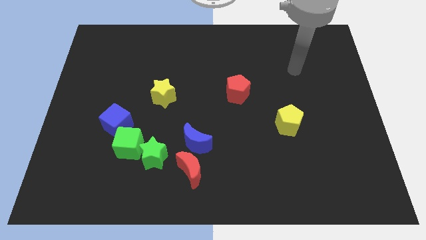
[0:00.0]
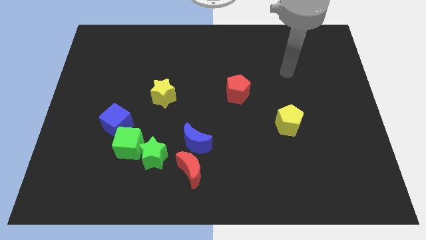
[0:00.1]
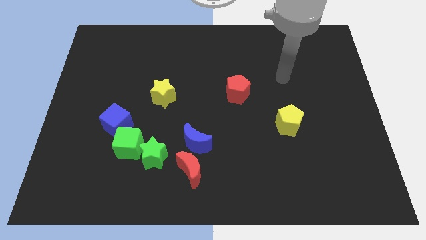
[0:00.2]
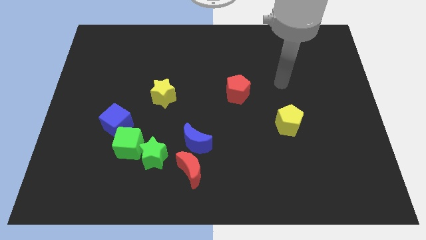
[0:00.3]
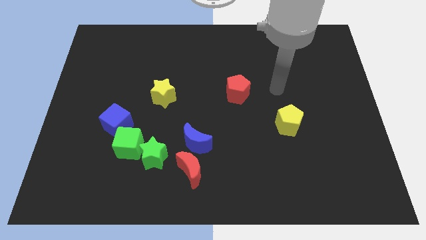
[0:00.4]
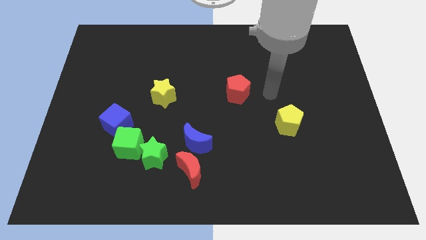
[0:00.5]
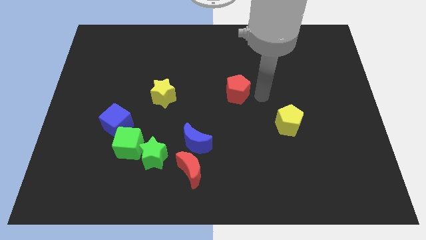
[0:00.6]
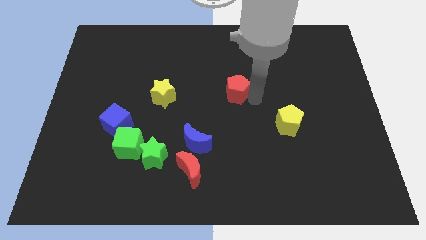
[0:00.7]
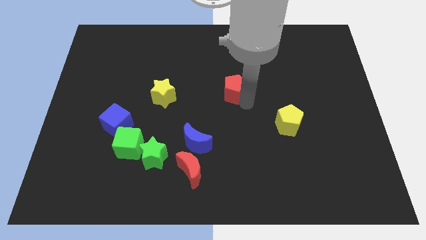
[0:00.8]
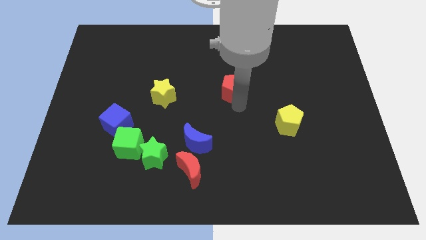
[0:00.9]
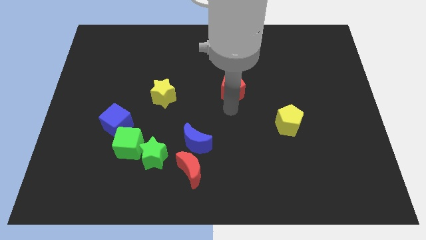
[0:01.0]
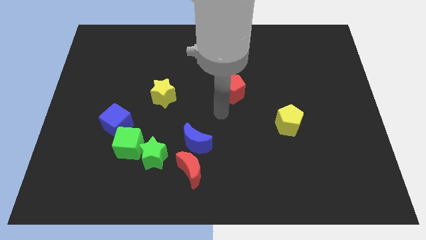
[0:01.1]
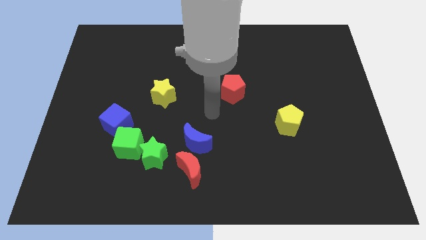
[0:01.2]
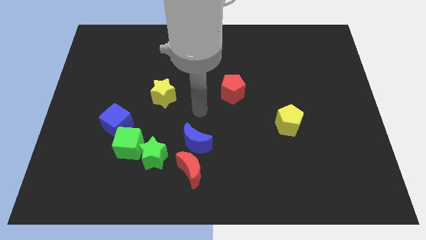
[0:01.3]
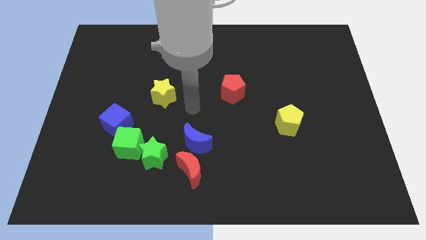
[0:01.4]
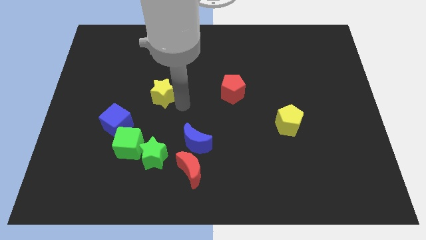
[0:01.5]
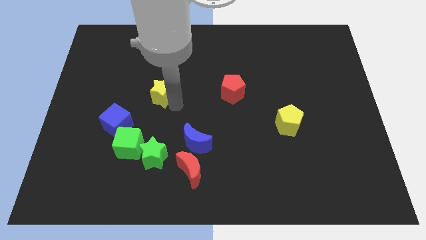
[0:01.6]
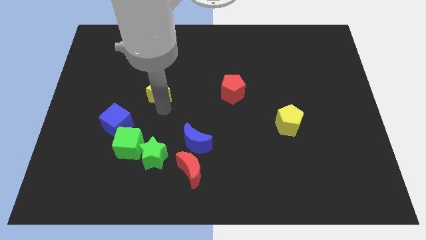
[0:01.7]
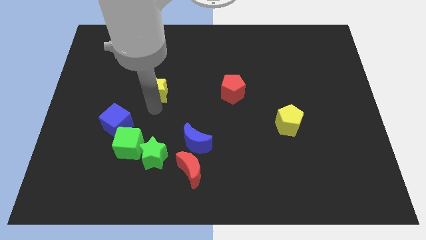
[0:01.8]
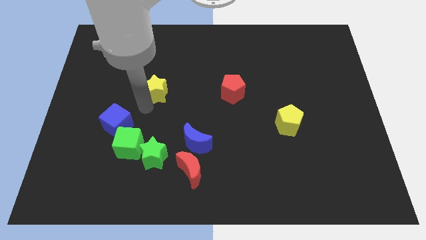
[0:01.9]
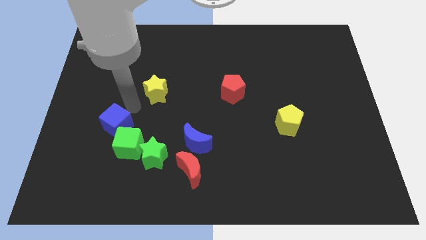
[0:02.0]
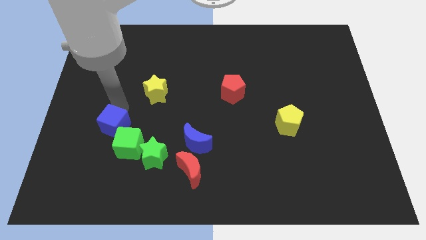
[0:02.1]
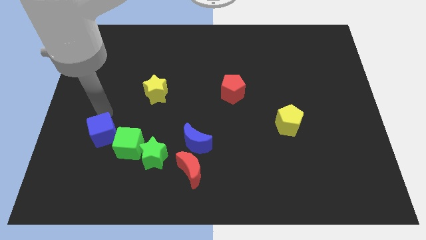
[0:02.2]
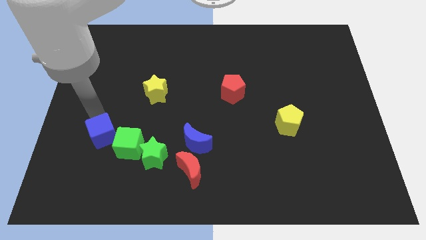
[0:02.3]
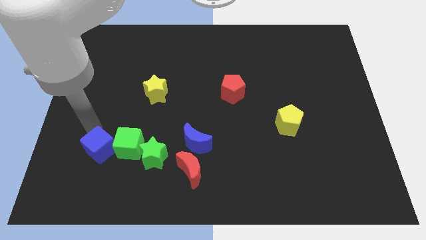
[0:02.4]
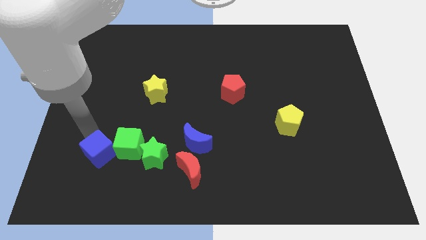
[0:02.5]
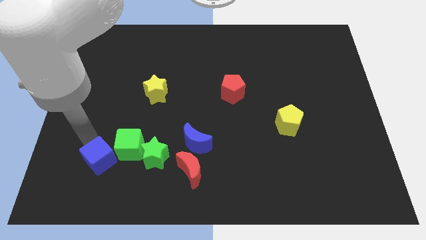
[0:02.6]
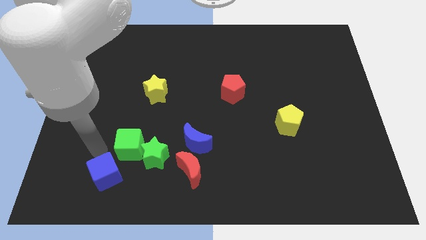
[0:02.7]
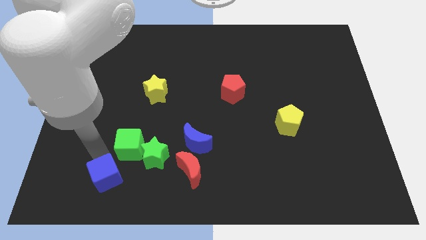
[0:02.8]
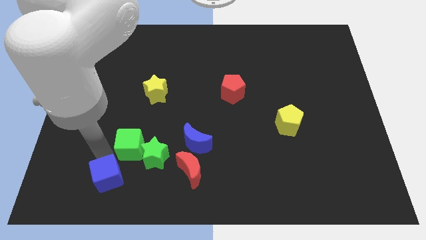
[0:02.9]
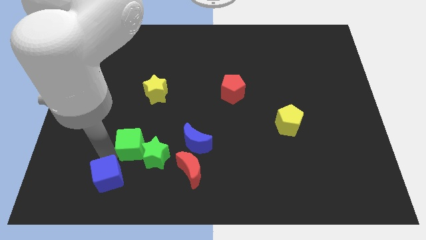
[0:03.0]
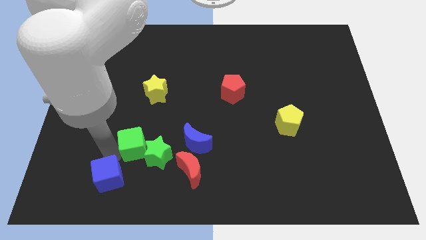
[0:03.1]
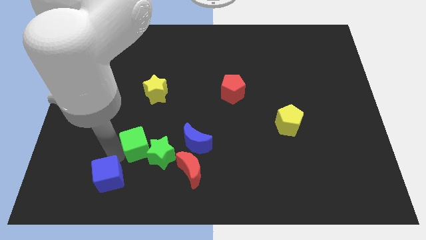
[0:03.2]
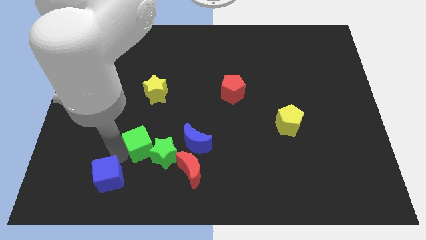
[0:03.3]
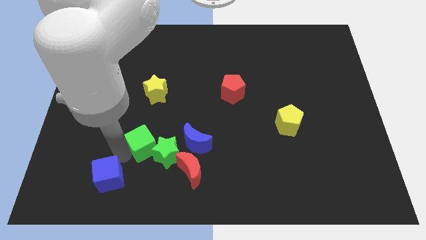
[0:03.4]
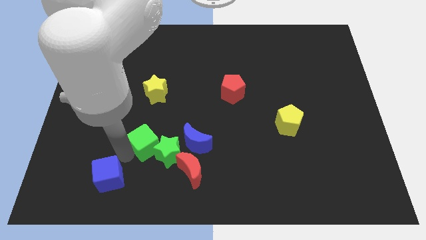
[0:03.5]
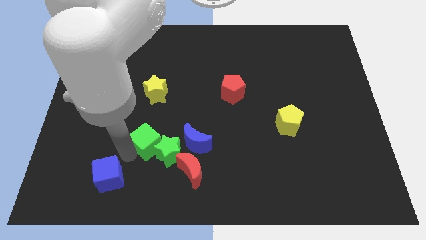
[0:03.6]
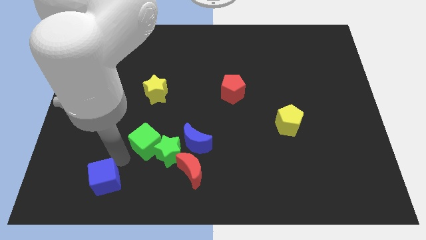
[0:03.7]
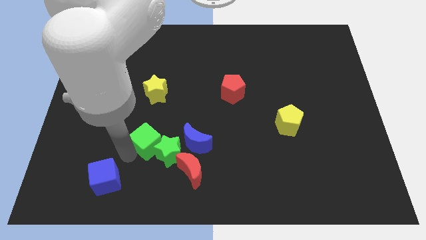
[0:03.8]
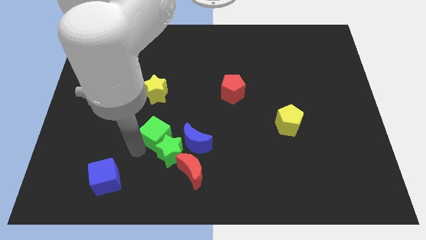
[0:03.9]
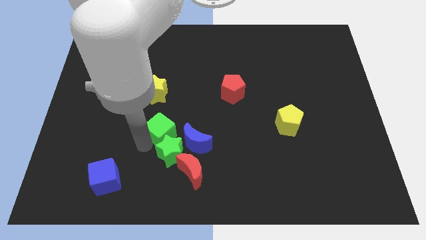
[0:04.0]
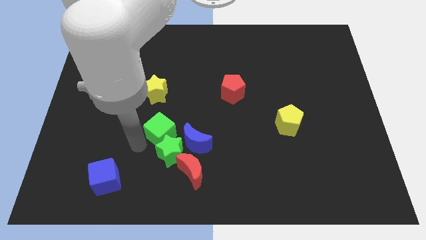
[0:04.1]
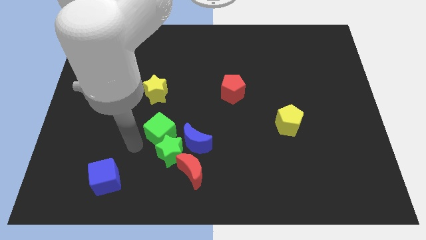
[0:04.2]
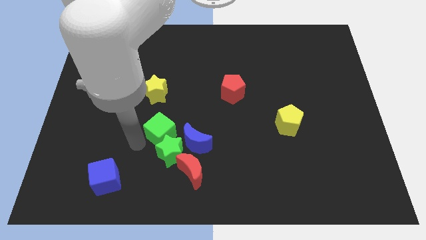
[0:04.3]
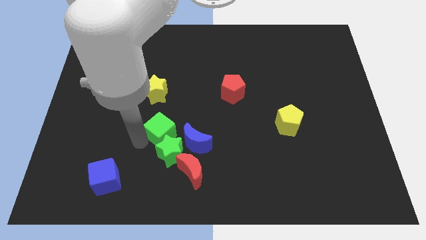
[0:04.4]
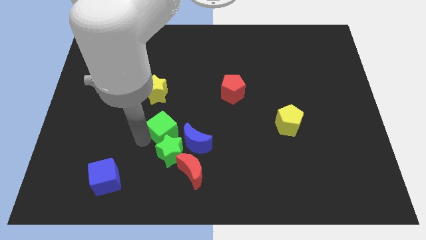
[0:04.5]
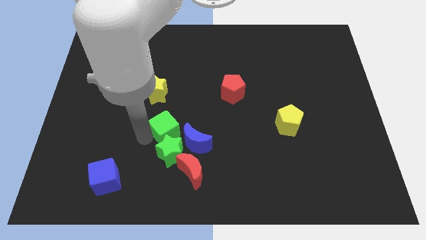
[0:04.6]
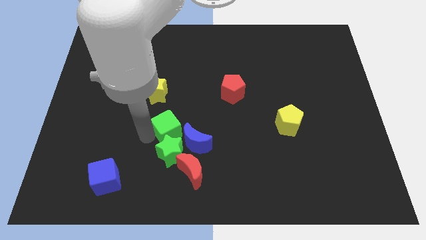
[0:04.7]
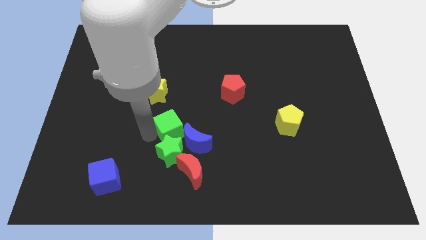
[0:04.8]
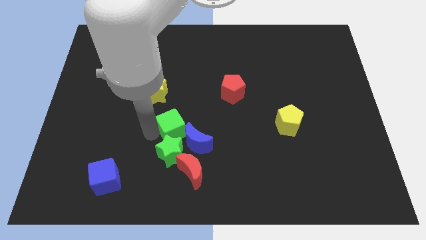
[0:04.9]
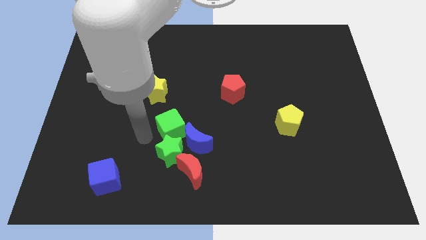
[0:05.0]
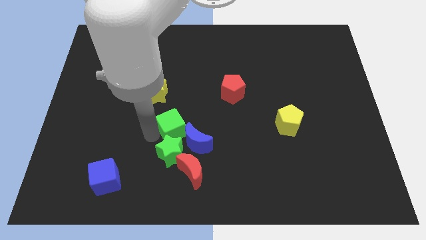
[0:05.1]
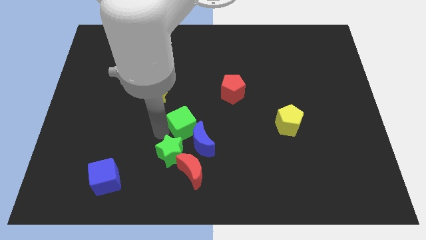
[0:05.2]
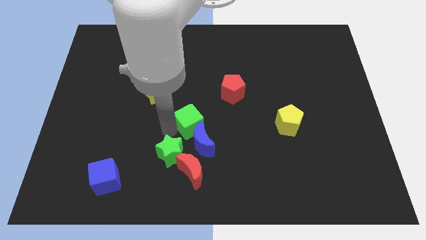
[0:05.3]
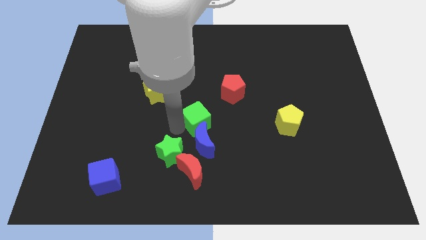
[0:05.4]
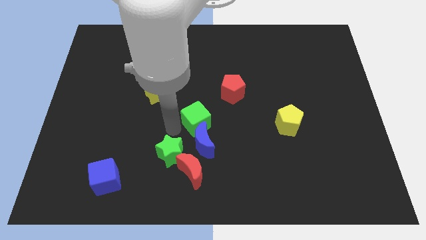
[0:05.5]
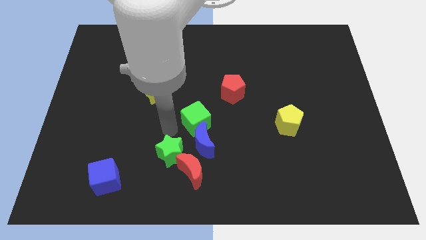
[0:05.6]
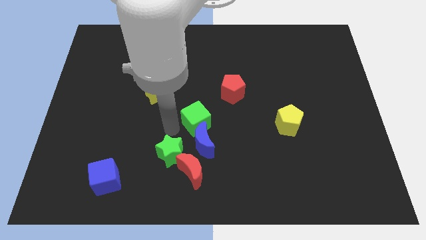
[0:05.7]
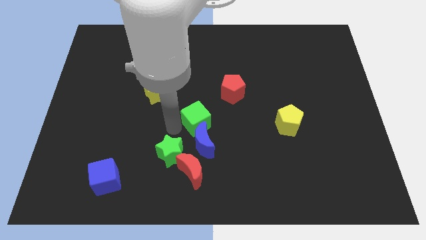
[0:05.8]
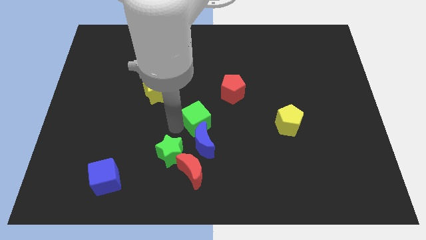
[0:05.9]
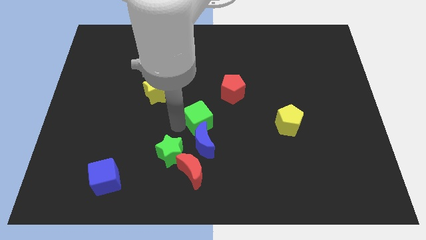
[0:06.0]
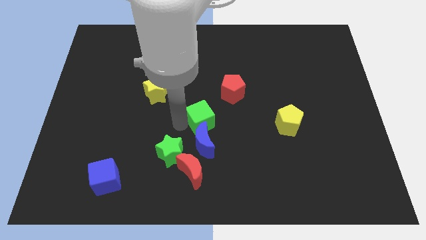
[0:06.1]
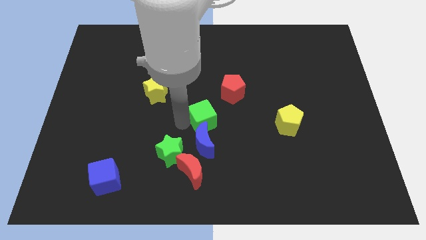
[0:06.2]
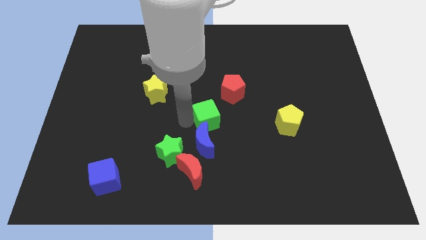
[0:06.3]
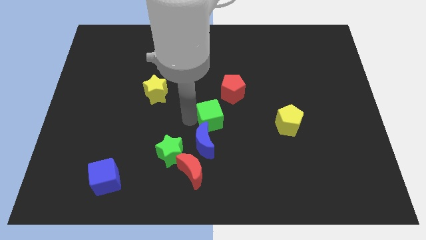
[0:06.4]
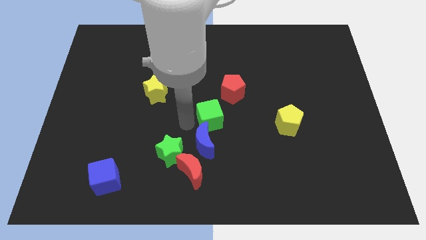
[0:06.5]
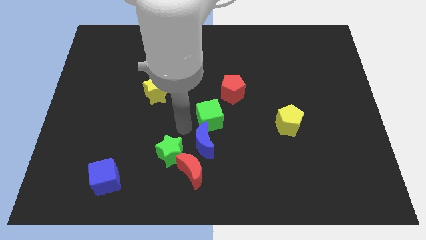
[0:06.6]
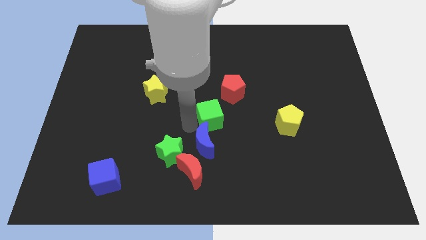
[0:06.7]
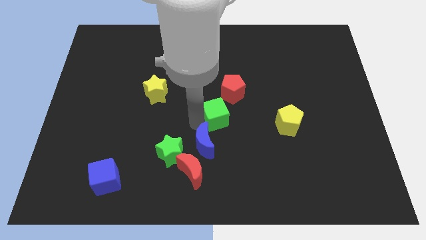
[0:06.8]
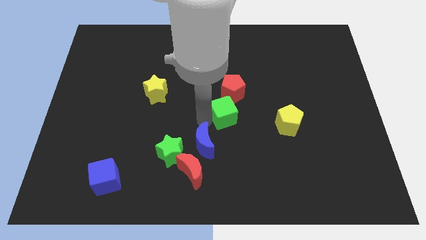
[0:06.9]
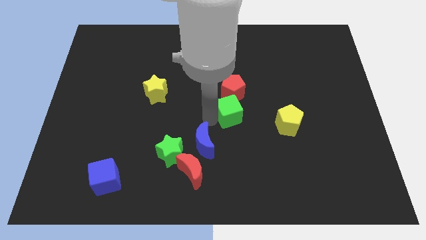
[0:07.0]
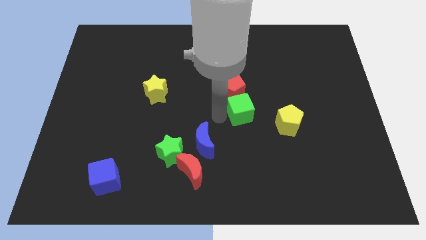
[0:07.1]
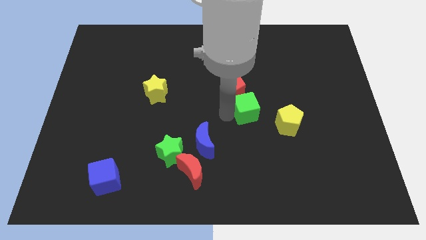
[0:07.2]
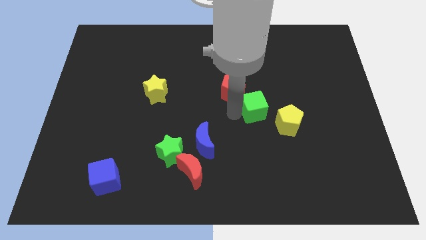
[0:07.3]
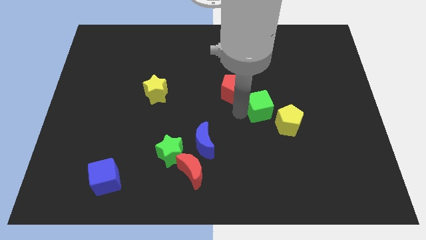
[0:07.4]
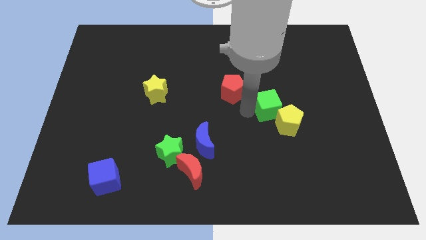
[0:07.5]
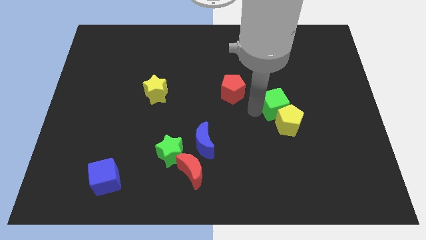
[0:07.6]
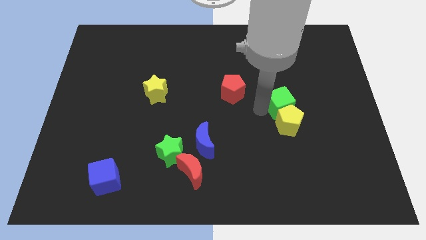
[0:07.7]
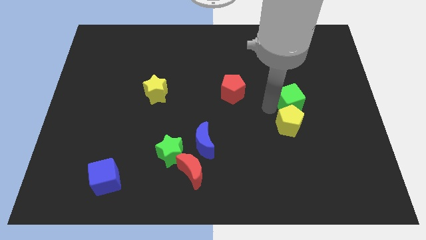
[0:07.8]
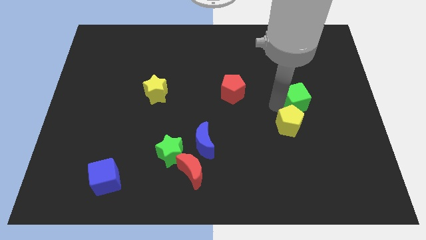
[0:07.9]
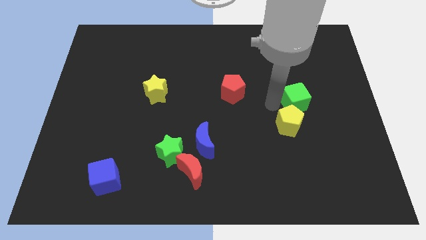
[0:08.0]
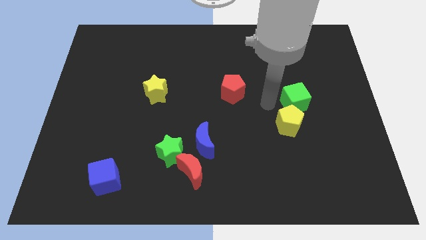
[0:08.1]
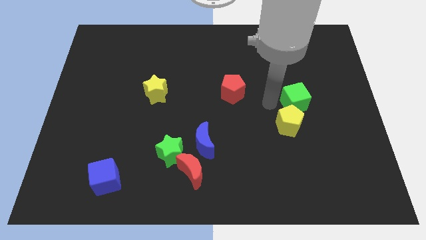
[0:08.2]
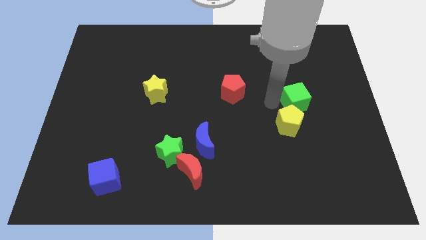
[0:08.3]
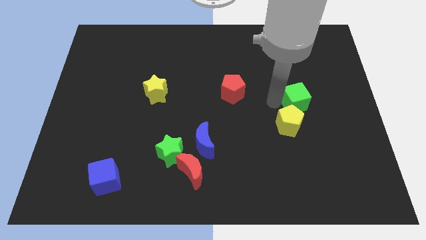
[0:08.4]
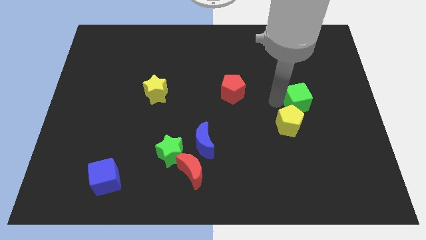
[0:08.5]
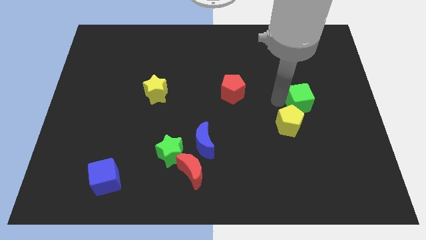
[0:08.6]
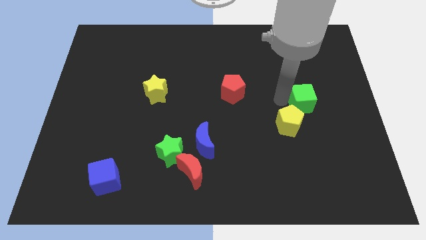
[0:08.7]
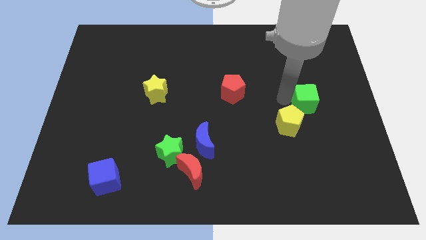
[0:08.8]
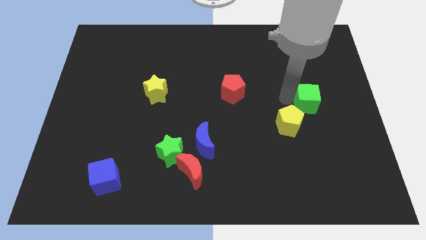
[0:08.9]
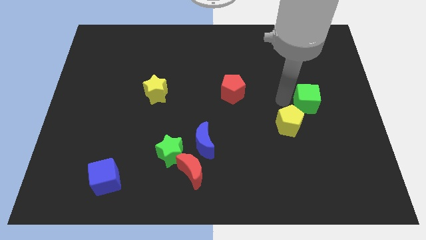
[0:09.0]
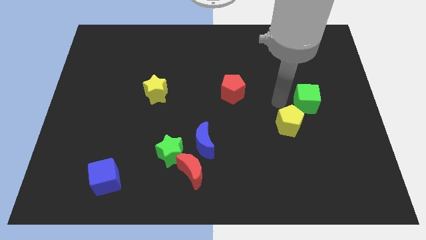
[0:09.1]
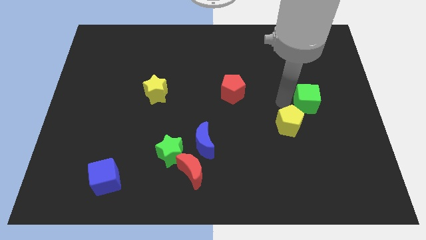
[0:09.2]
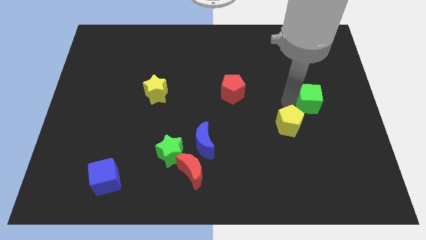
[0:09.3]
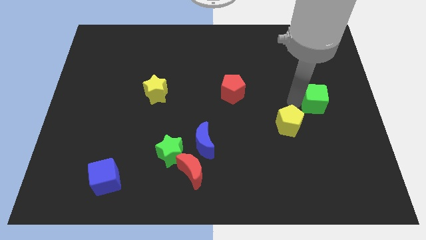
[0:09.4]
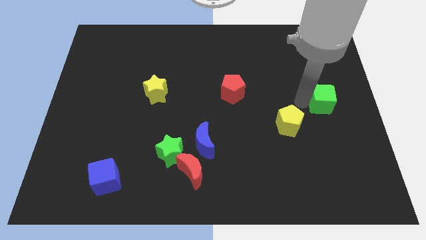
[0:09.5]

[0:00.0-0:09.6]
slide the green cube to the center right
